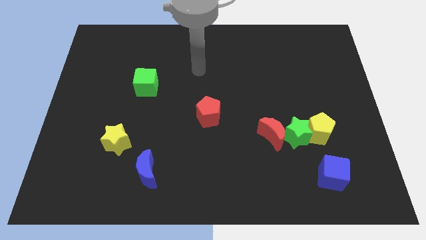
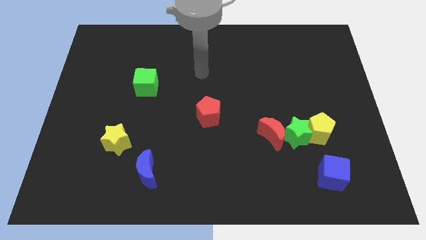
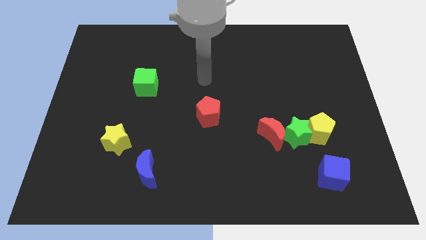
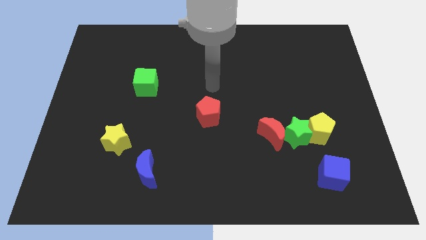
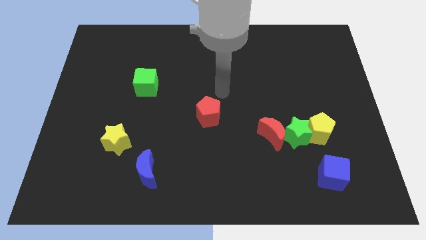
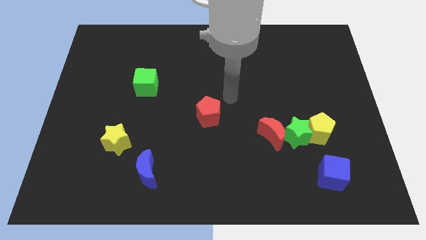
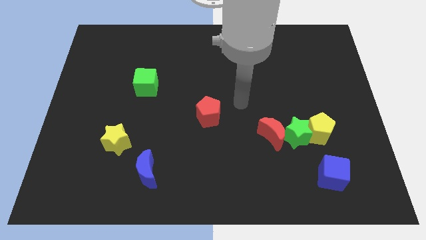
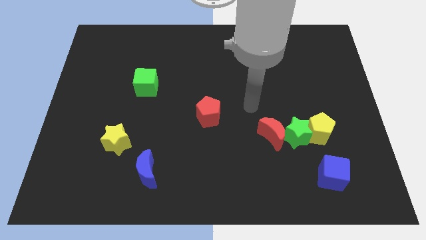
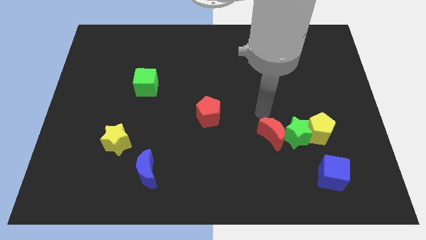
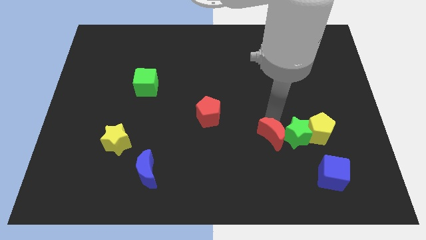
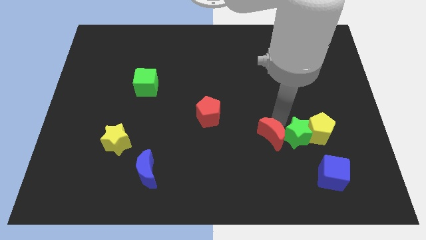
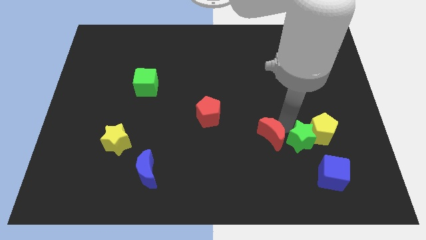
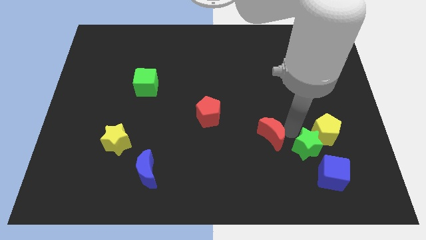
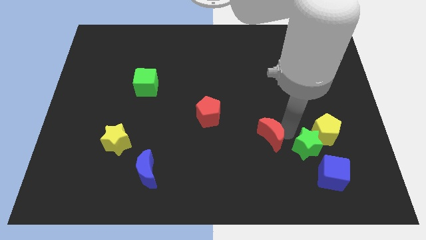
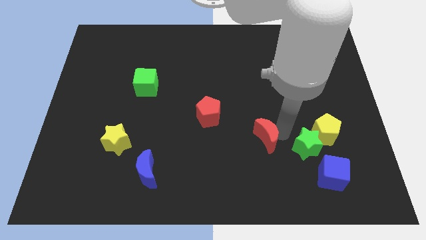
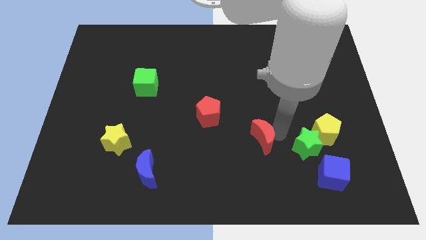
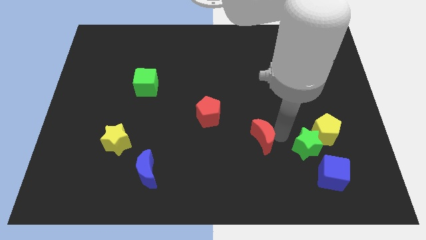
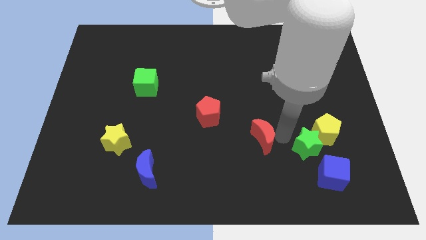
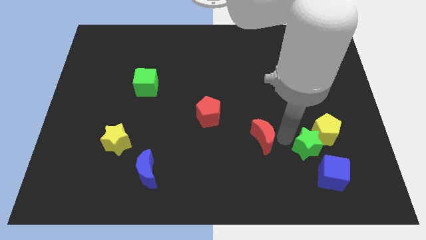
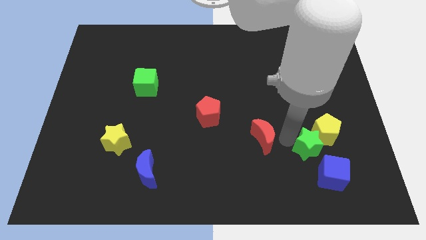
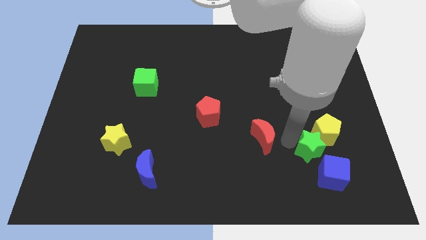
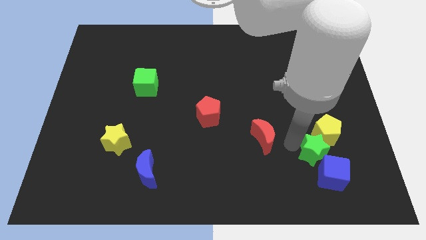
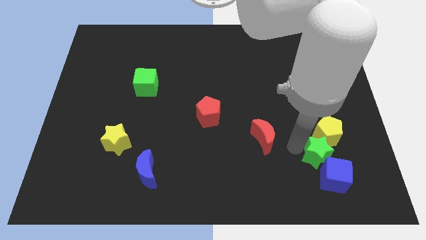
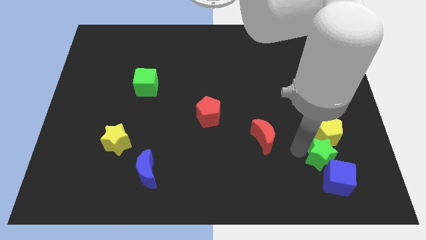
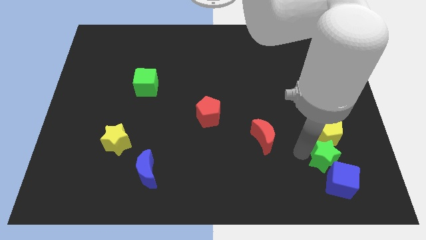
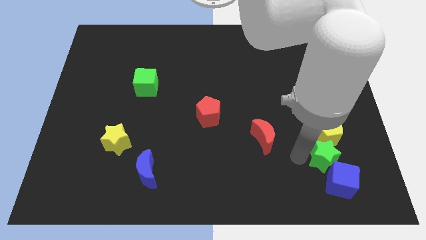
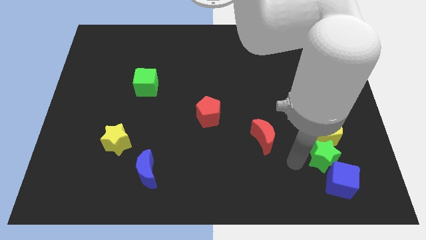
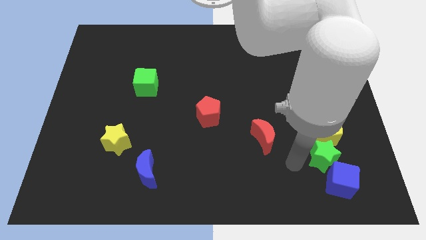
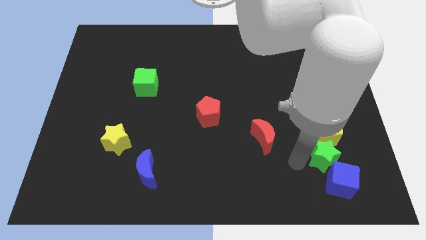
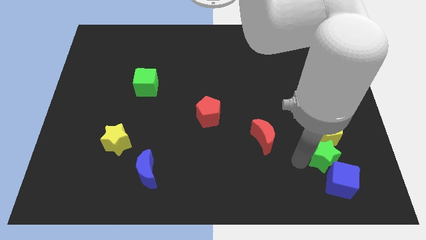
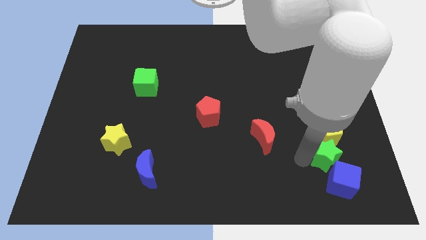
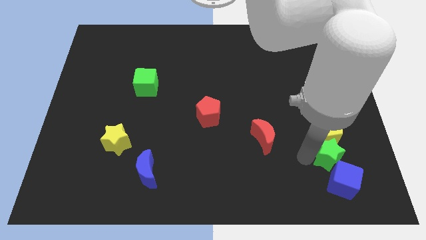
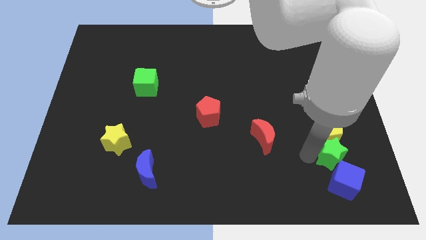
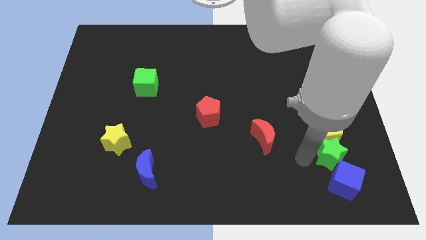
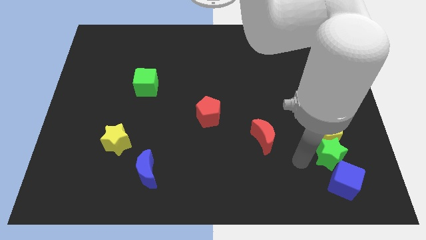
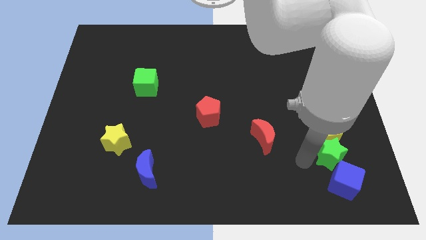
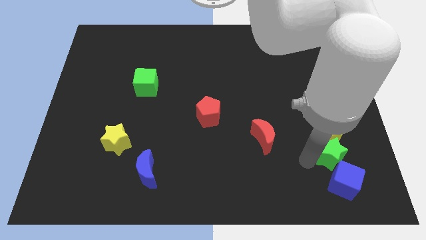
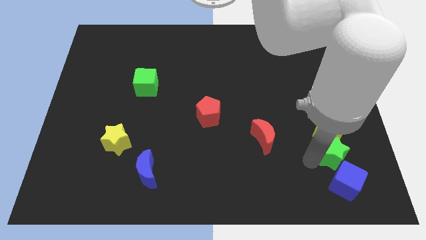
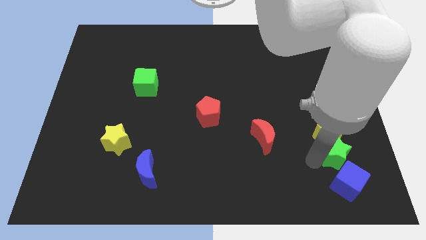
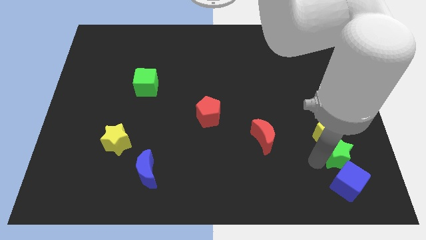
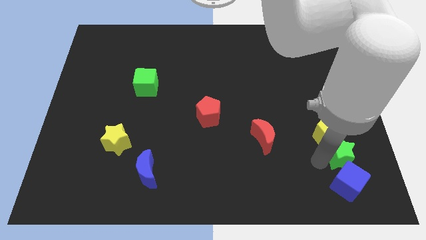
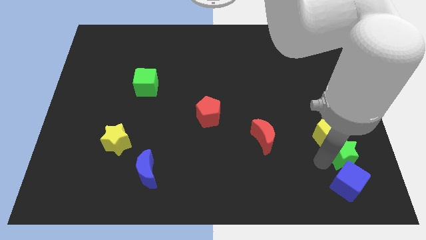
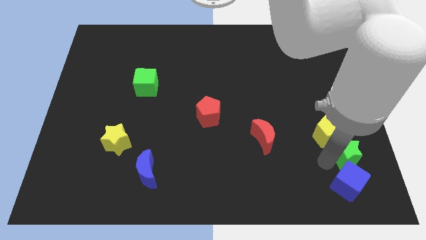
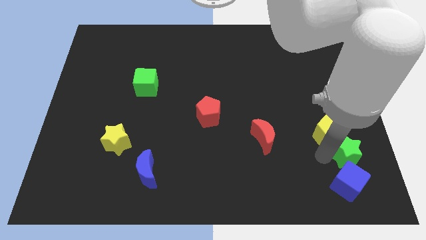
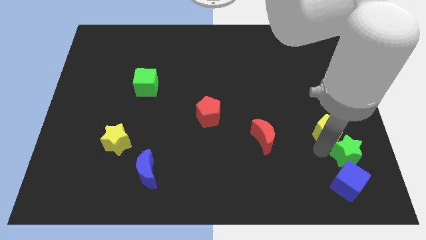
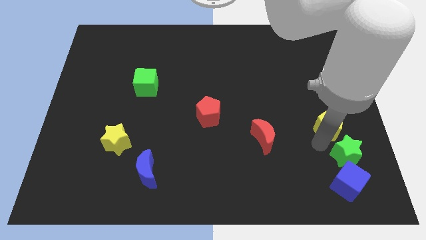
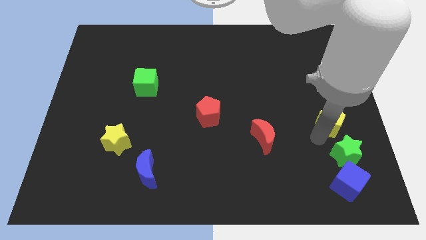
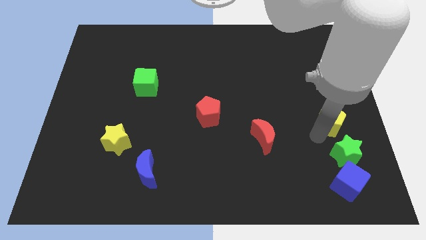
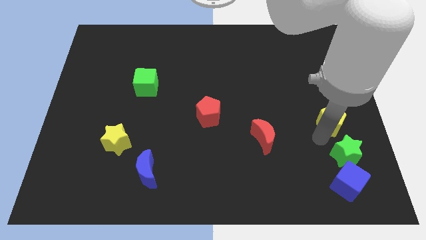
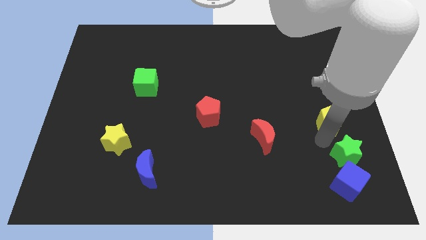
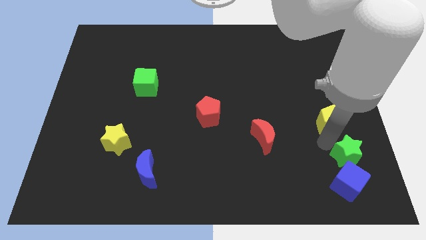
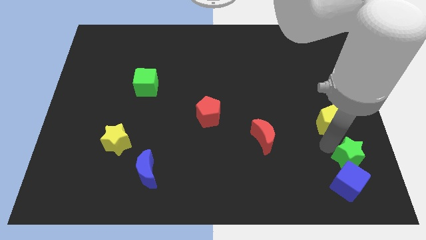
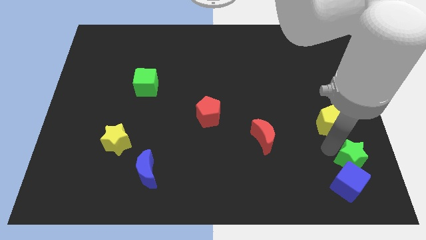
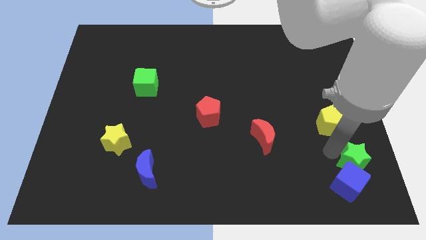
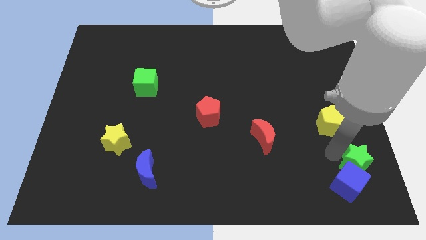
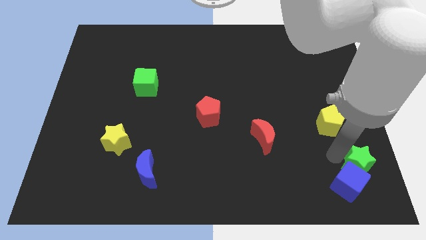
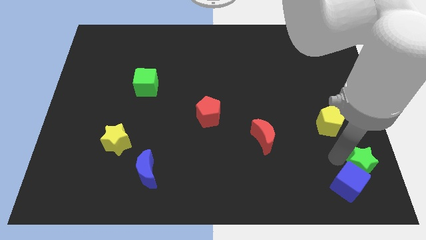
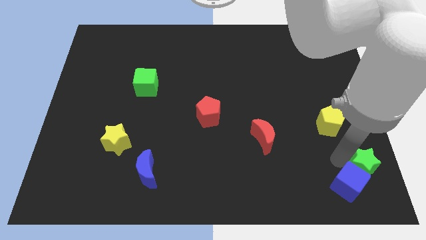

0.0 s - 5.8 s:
put the green star to the bottom right corner
